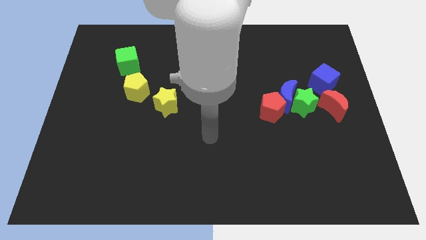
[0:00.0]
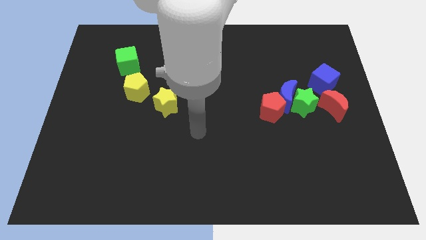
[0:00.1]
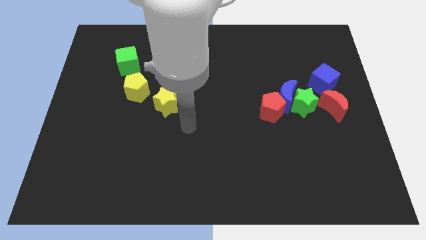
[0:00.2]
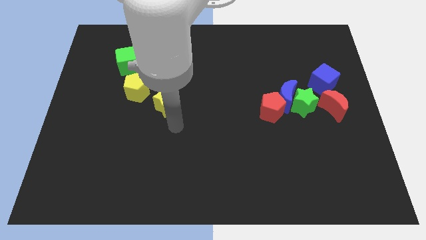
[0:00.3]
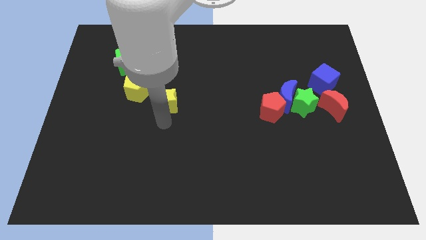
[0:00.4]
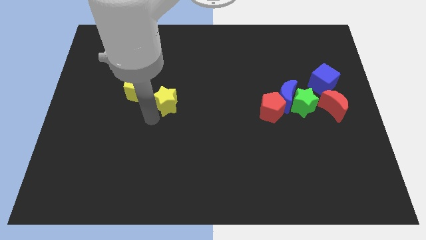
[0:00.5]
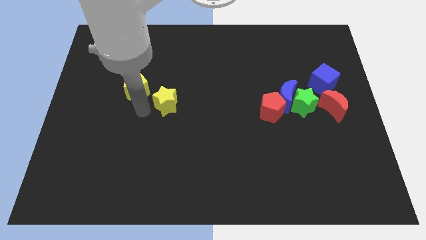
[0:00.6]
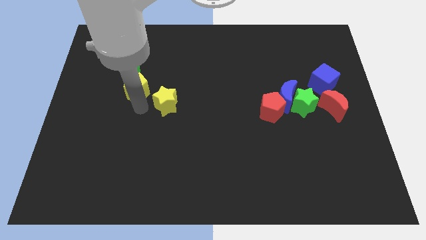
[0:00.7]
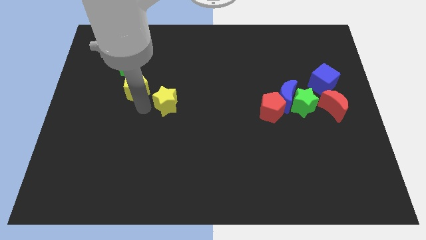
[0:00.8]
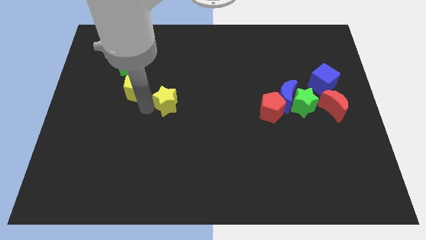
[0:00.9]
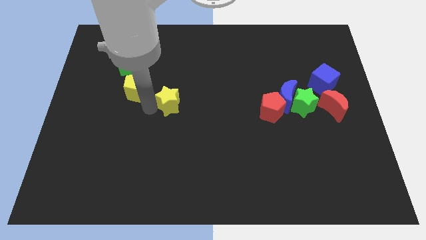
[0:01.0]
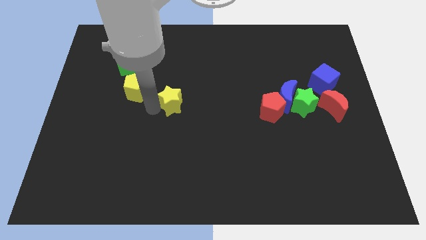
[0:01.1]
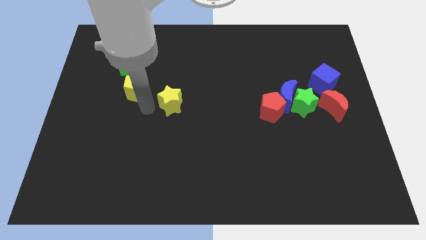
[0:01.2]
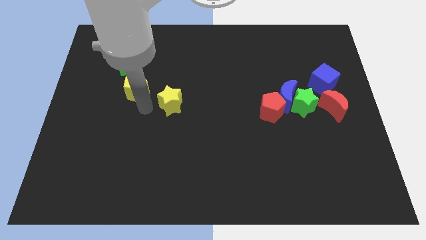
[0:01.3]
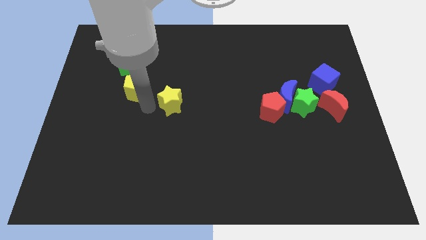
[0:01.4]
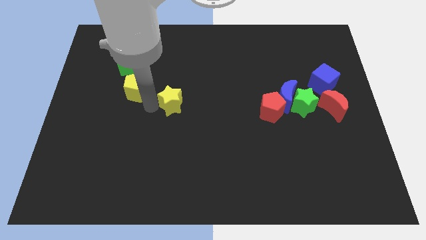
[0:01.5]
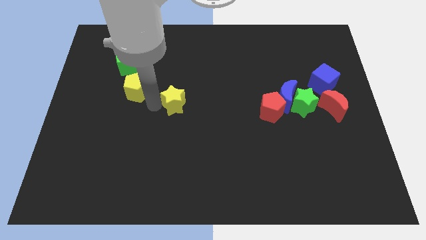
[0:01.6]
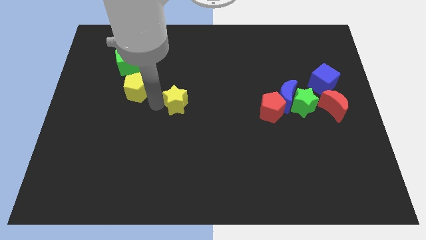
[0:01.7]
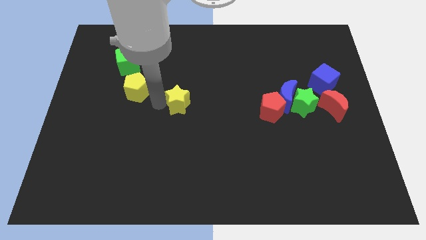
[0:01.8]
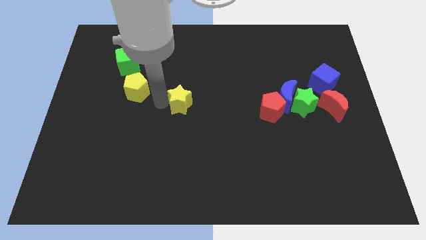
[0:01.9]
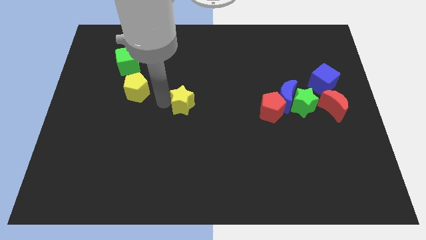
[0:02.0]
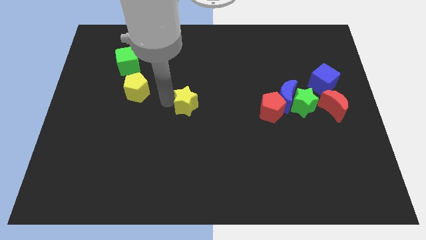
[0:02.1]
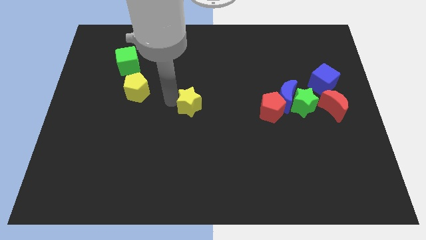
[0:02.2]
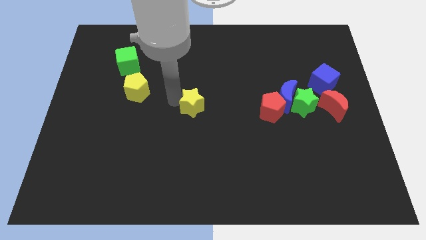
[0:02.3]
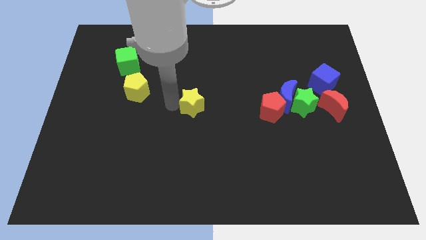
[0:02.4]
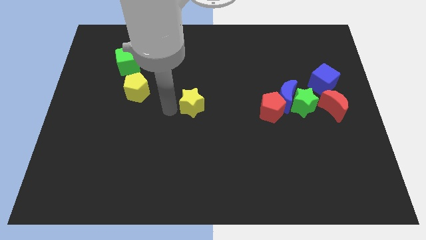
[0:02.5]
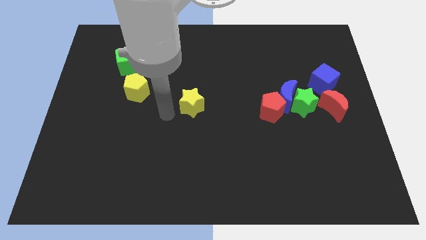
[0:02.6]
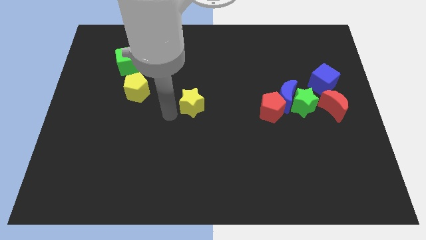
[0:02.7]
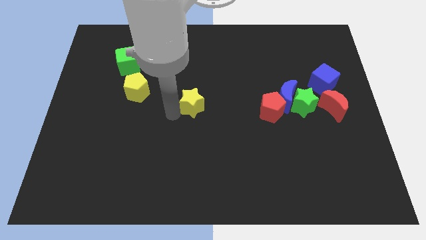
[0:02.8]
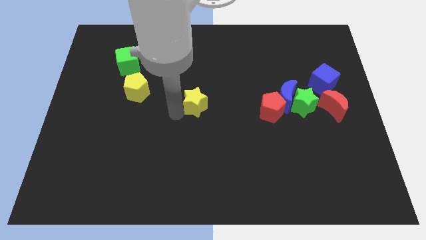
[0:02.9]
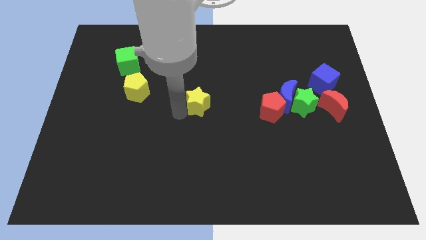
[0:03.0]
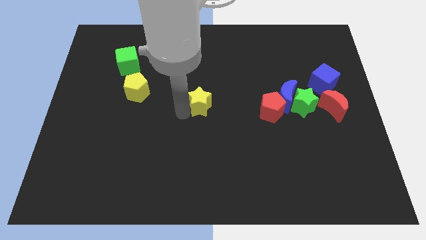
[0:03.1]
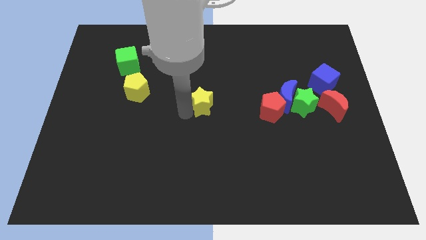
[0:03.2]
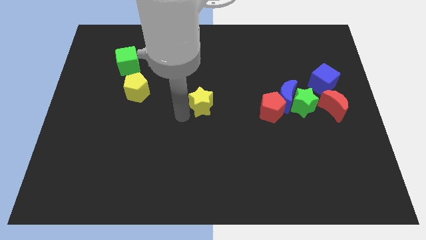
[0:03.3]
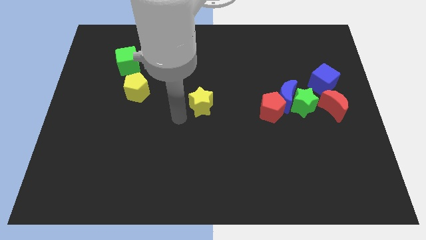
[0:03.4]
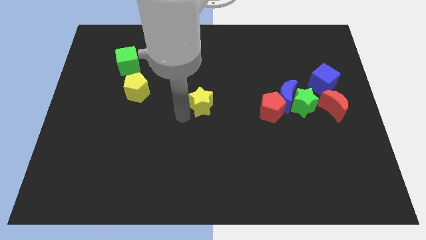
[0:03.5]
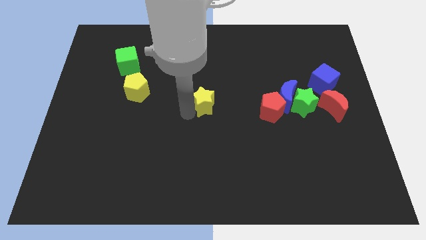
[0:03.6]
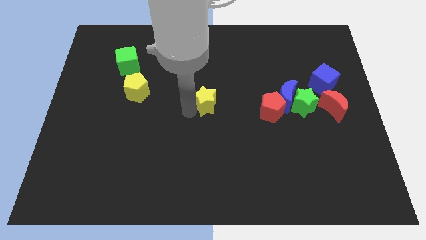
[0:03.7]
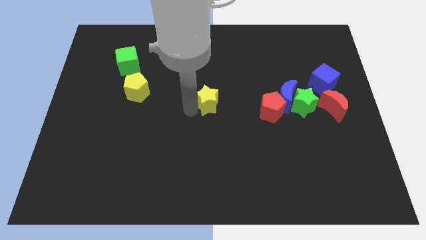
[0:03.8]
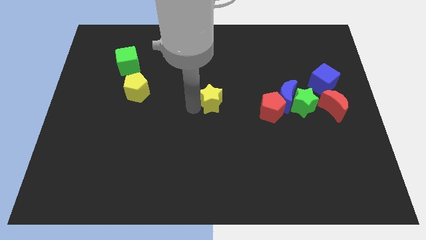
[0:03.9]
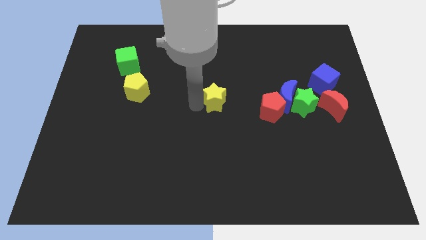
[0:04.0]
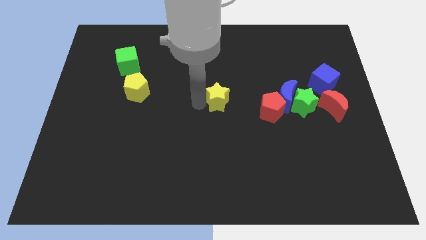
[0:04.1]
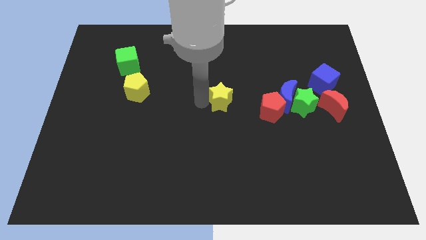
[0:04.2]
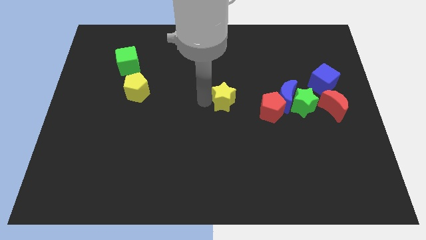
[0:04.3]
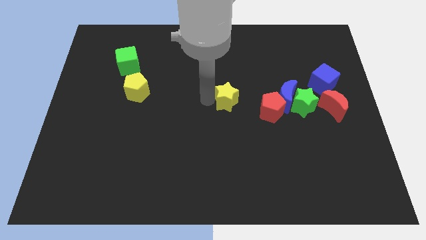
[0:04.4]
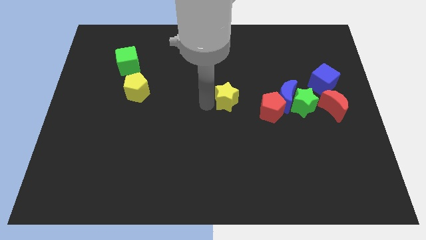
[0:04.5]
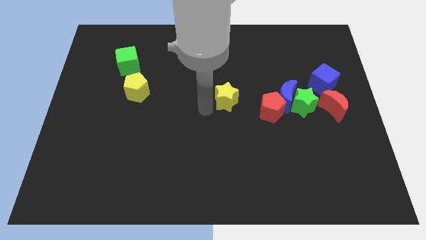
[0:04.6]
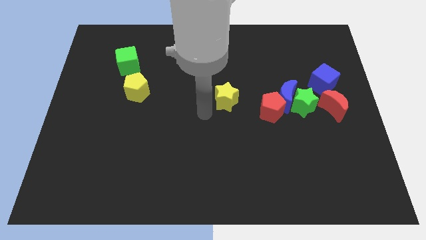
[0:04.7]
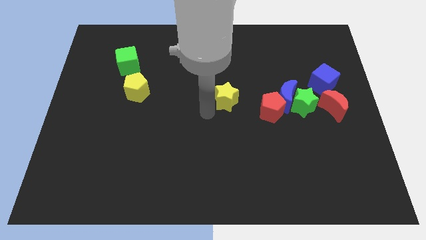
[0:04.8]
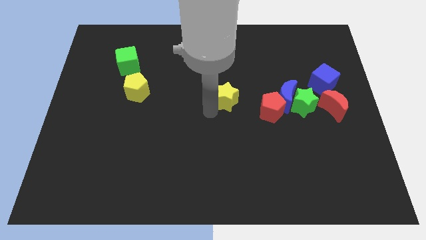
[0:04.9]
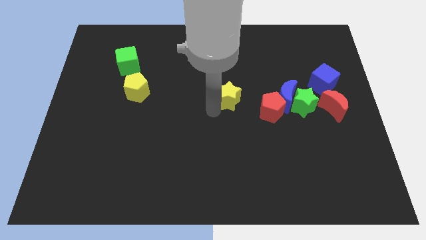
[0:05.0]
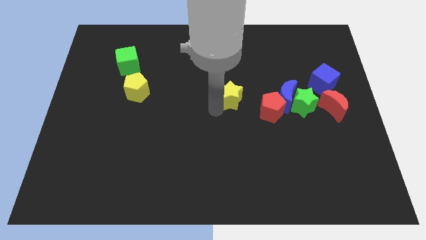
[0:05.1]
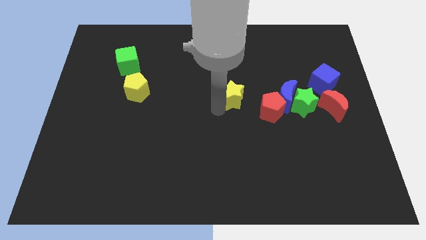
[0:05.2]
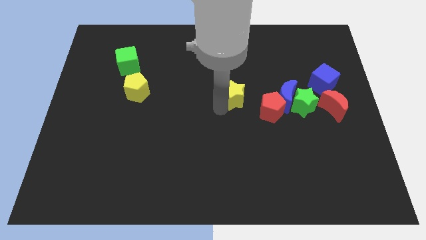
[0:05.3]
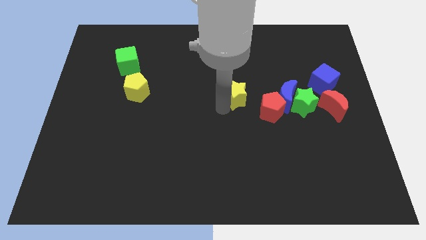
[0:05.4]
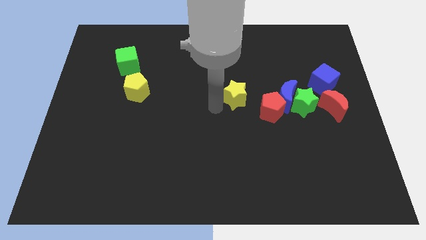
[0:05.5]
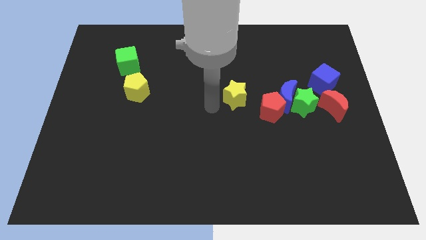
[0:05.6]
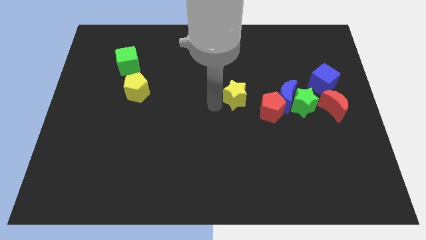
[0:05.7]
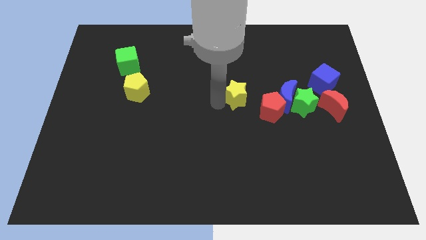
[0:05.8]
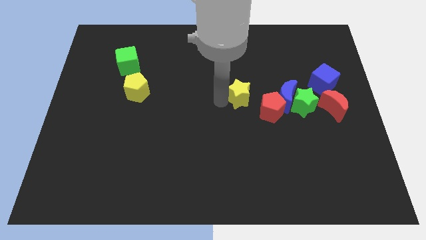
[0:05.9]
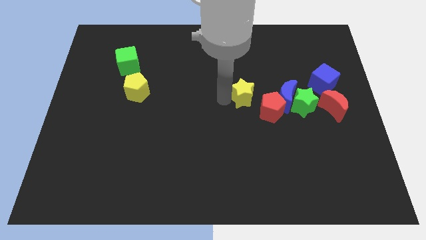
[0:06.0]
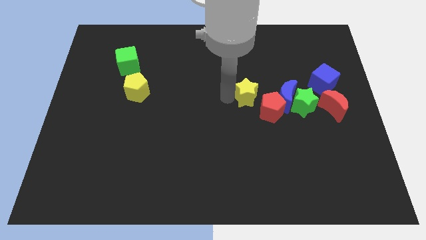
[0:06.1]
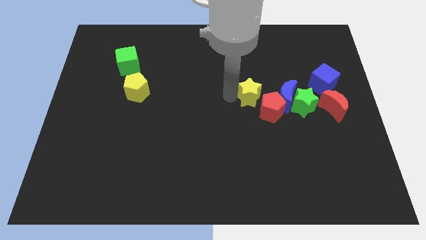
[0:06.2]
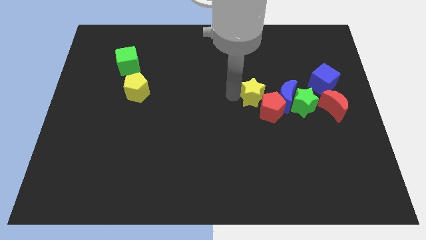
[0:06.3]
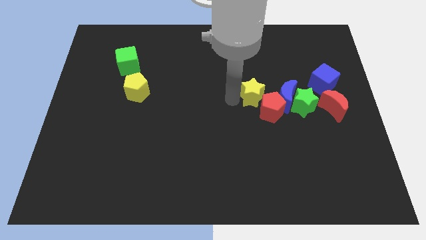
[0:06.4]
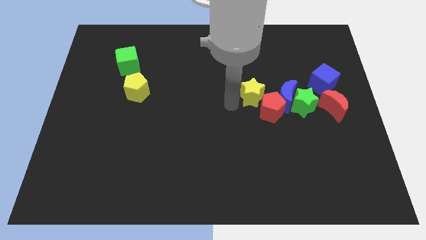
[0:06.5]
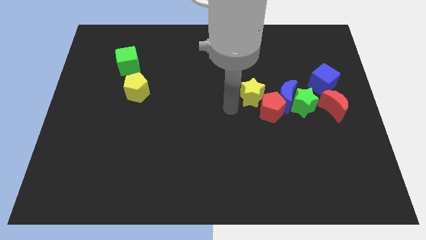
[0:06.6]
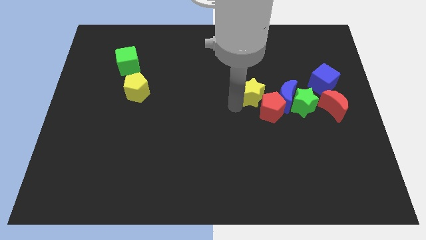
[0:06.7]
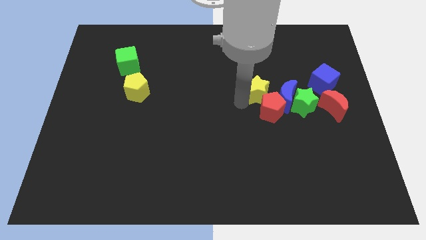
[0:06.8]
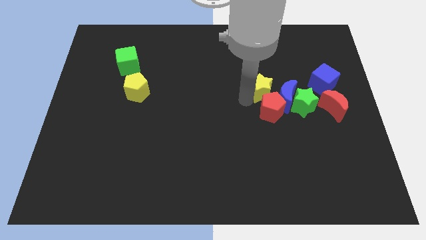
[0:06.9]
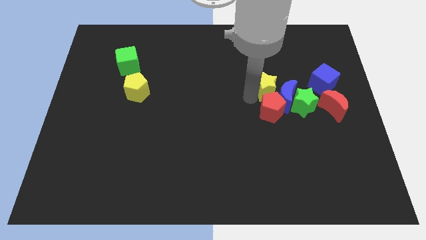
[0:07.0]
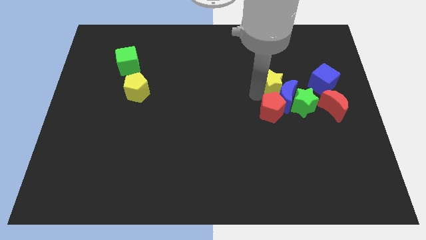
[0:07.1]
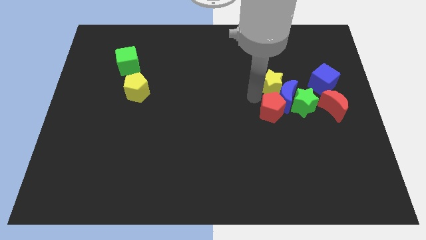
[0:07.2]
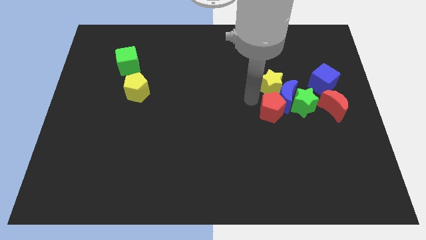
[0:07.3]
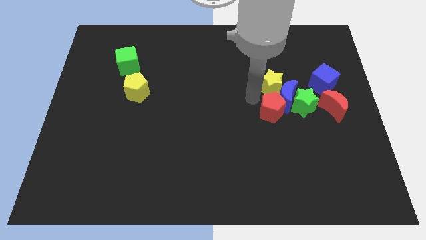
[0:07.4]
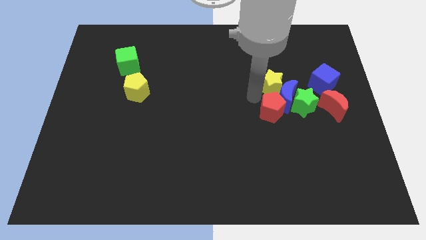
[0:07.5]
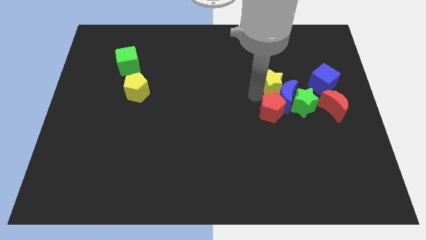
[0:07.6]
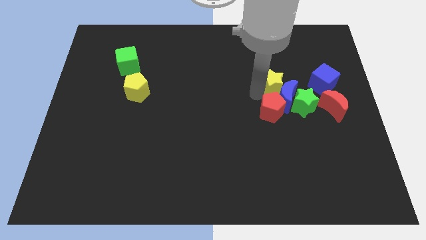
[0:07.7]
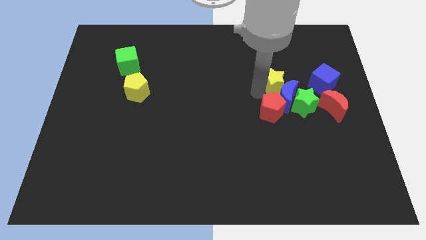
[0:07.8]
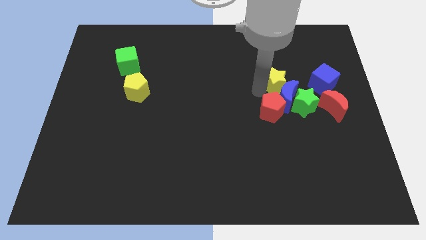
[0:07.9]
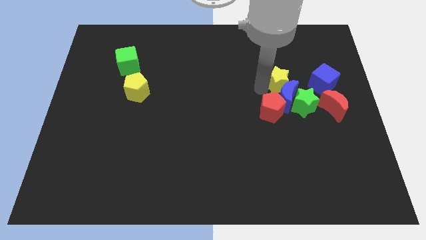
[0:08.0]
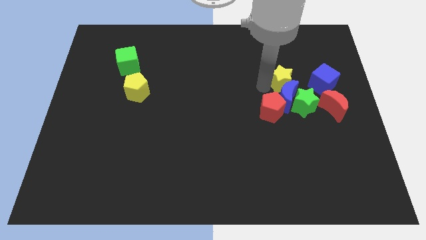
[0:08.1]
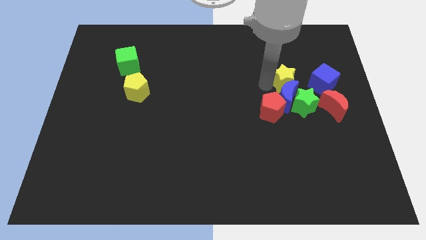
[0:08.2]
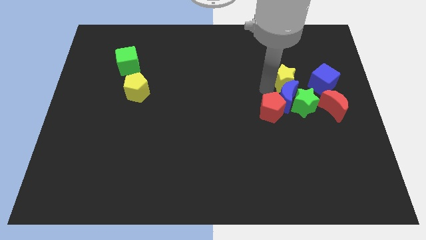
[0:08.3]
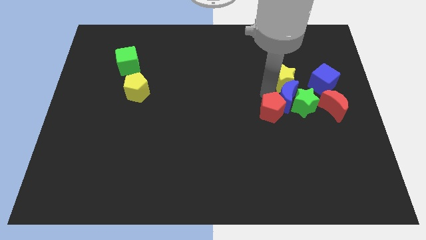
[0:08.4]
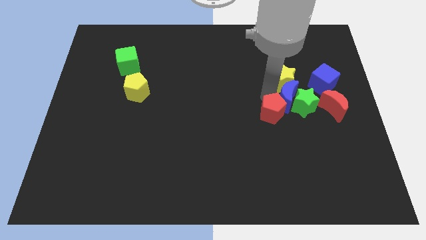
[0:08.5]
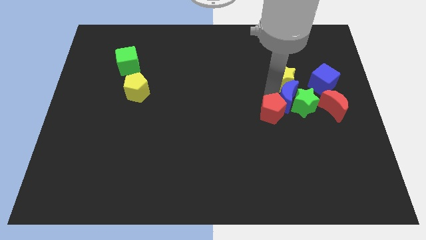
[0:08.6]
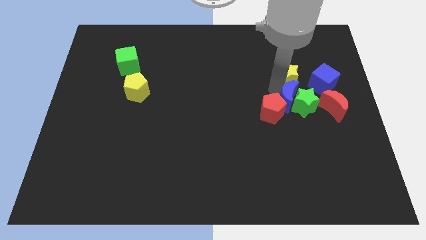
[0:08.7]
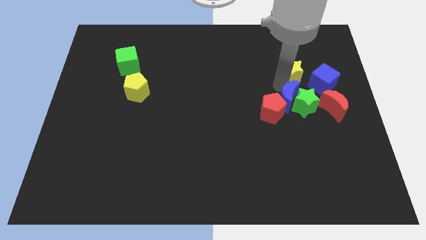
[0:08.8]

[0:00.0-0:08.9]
slide the yellow star to the top left side of the blue cube

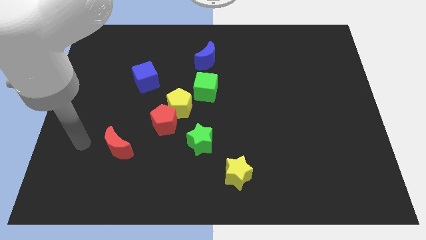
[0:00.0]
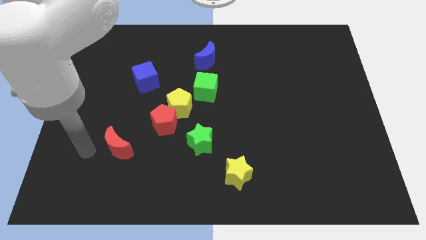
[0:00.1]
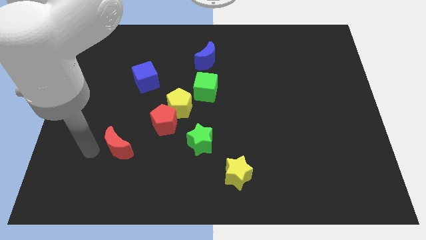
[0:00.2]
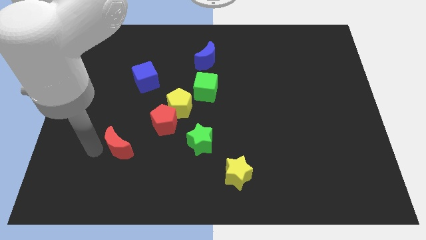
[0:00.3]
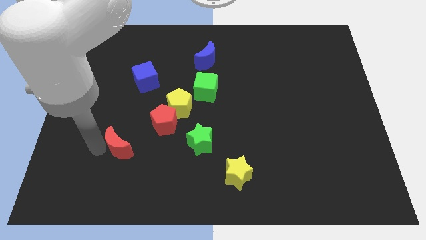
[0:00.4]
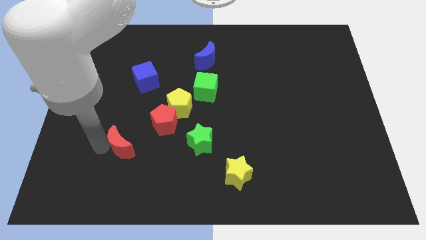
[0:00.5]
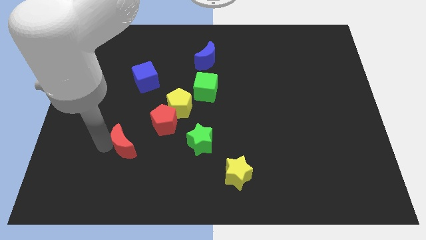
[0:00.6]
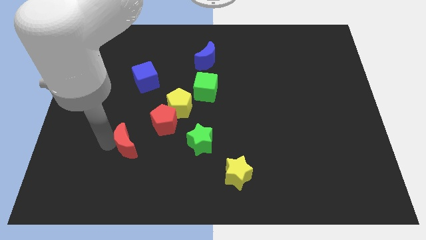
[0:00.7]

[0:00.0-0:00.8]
put the red moon to the left of the green star
